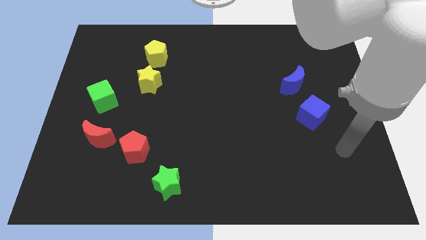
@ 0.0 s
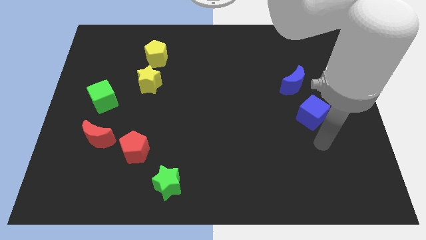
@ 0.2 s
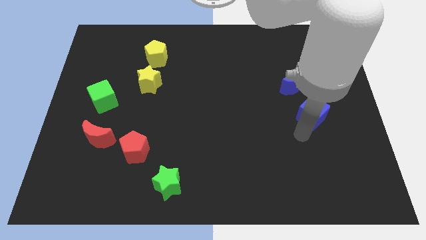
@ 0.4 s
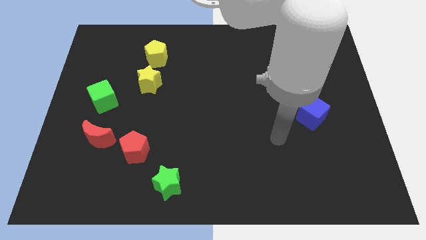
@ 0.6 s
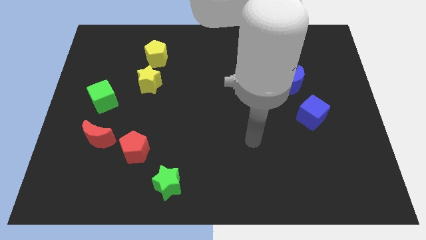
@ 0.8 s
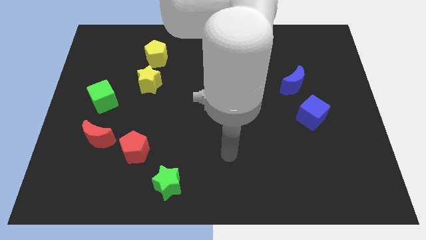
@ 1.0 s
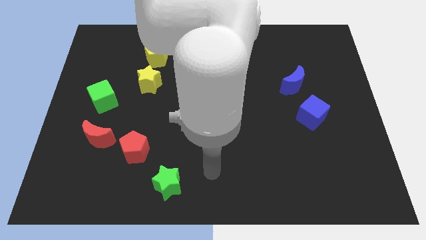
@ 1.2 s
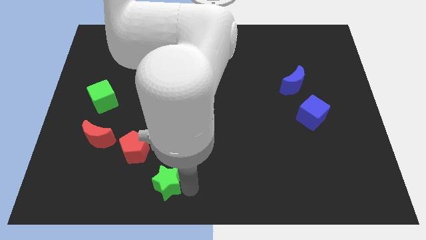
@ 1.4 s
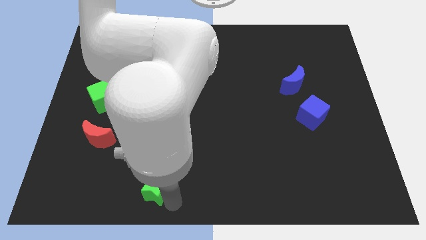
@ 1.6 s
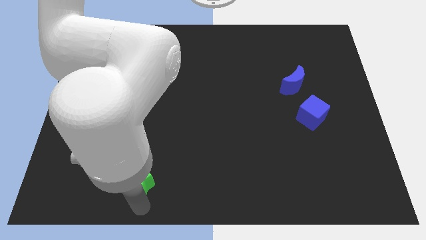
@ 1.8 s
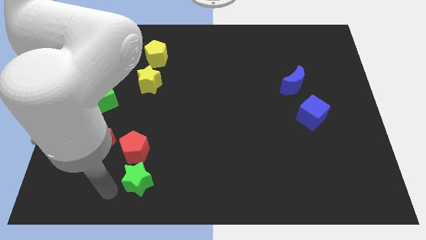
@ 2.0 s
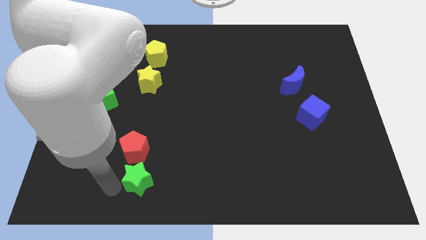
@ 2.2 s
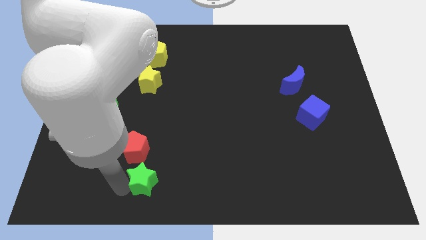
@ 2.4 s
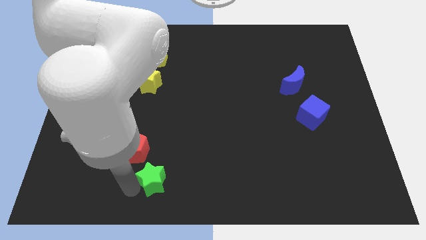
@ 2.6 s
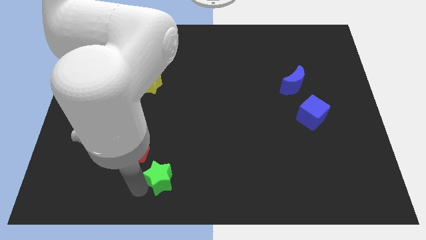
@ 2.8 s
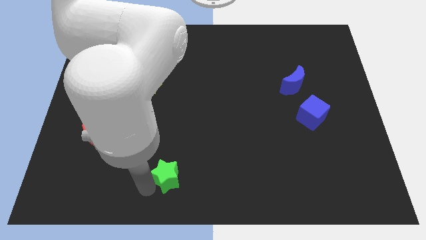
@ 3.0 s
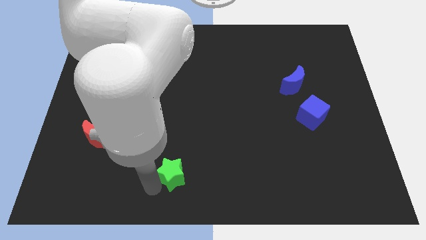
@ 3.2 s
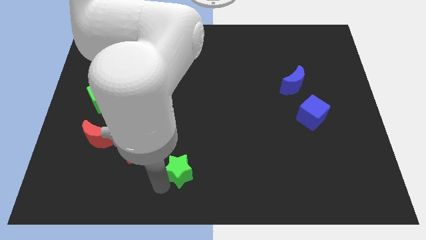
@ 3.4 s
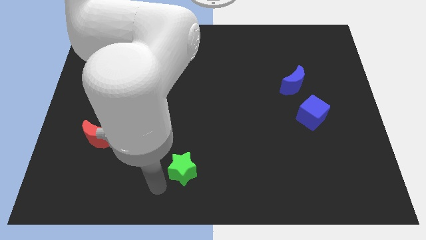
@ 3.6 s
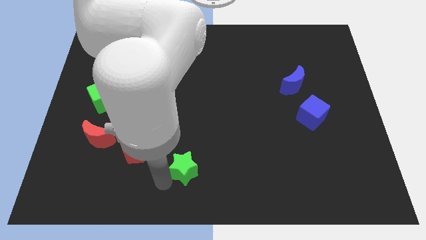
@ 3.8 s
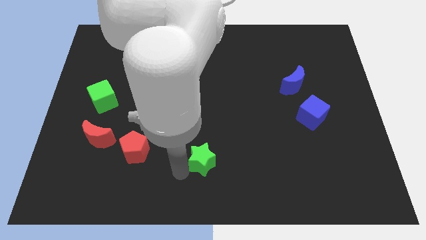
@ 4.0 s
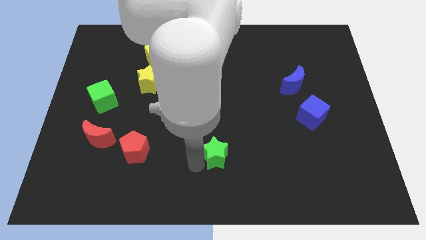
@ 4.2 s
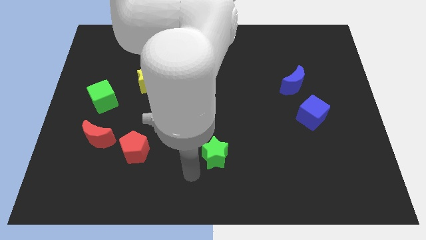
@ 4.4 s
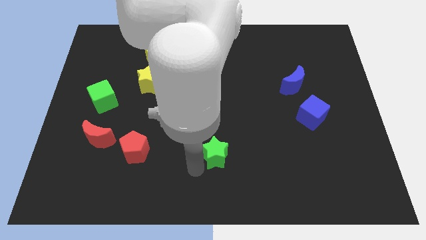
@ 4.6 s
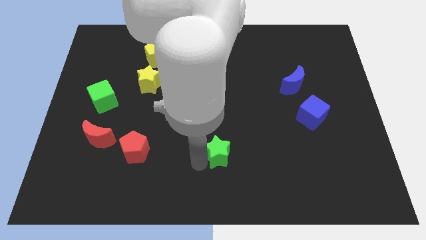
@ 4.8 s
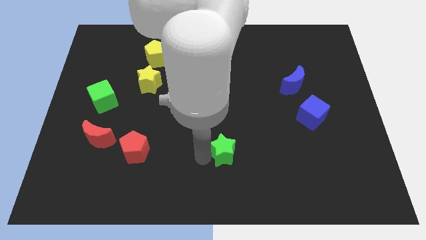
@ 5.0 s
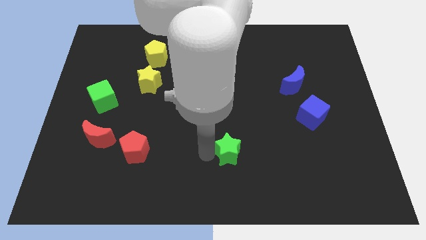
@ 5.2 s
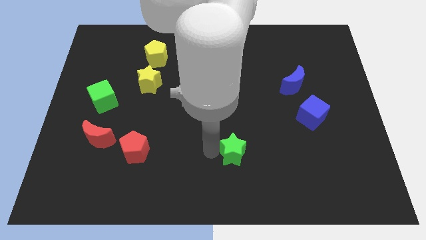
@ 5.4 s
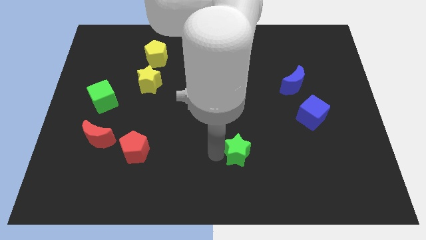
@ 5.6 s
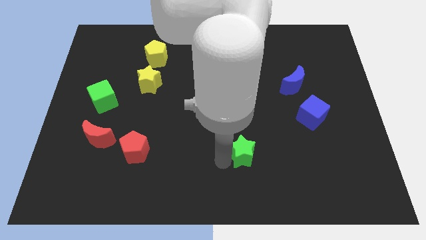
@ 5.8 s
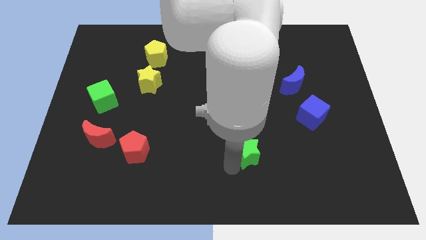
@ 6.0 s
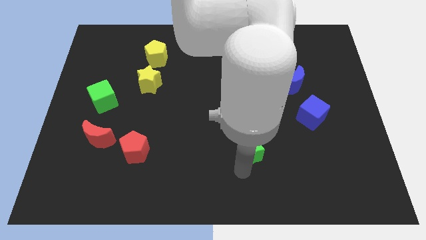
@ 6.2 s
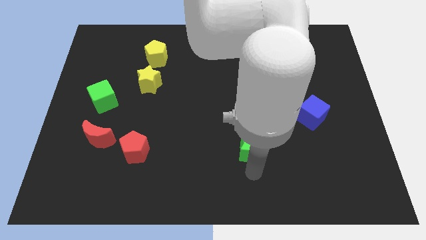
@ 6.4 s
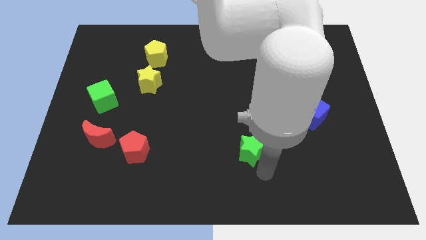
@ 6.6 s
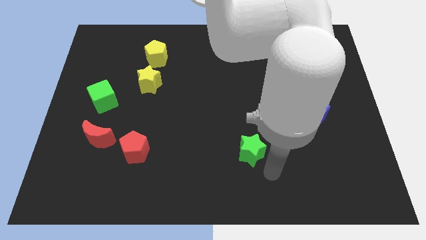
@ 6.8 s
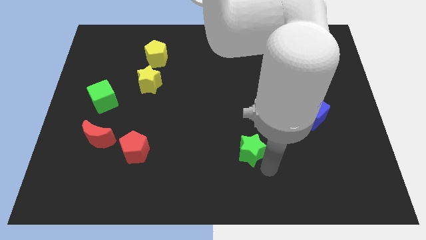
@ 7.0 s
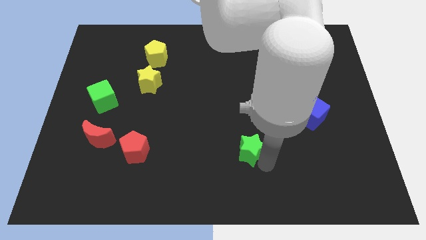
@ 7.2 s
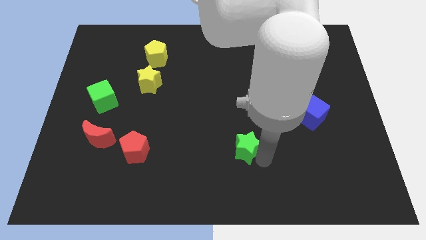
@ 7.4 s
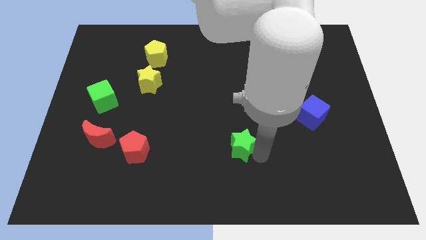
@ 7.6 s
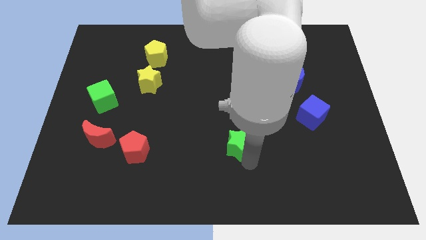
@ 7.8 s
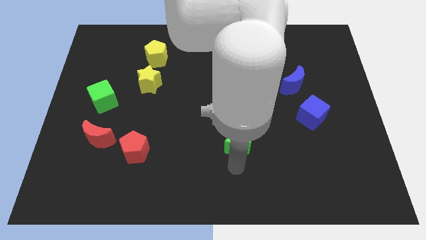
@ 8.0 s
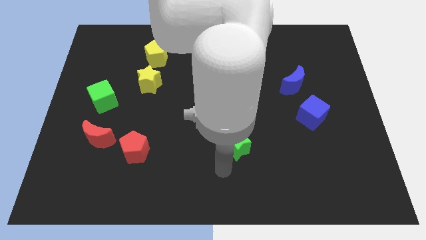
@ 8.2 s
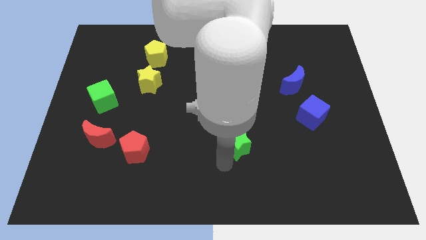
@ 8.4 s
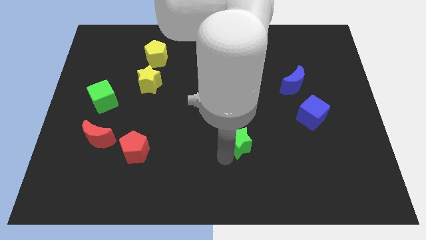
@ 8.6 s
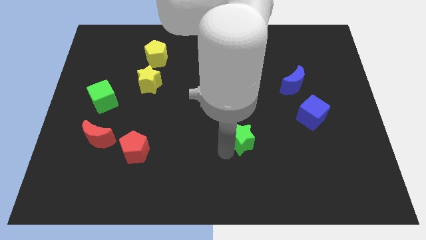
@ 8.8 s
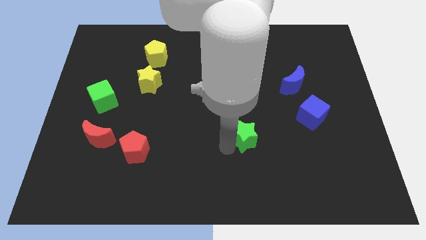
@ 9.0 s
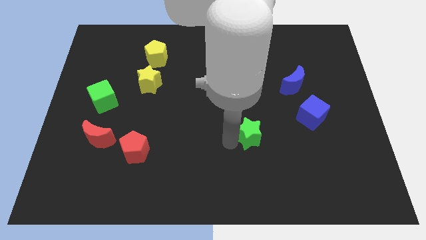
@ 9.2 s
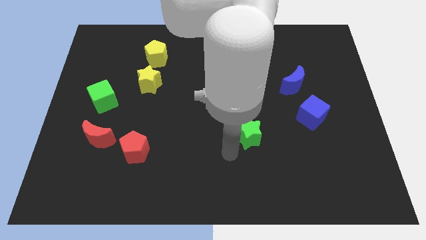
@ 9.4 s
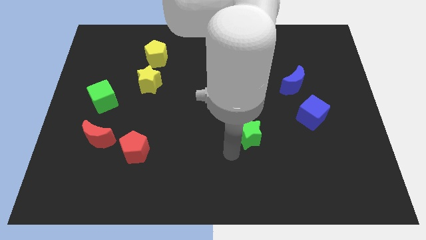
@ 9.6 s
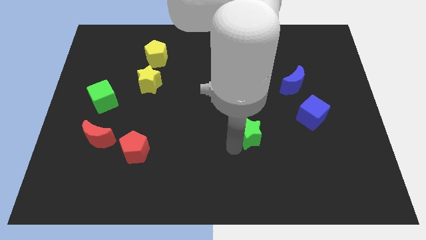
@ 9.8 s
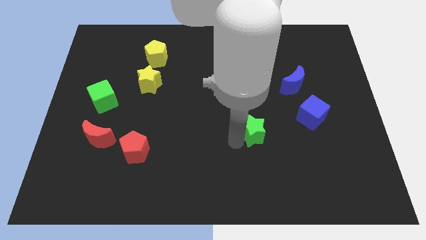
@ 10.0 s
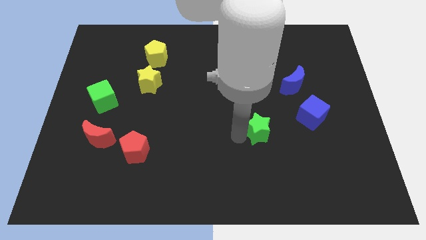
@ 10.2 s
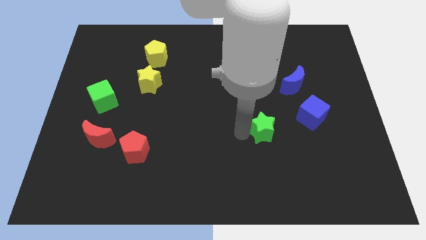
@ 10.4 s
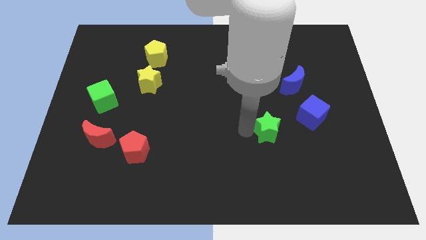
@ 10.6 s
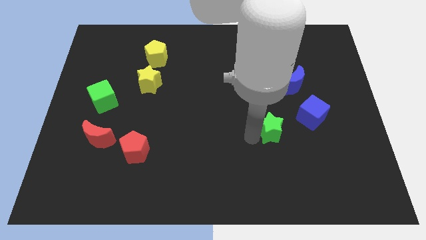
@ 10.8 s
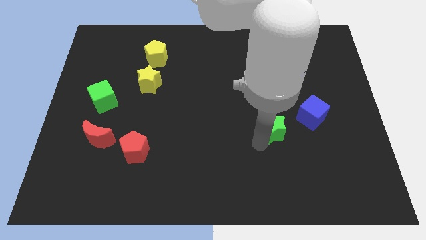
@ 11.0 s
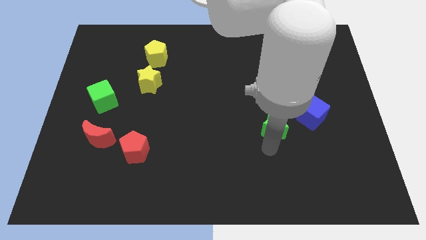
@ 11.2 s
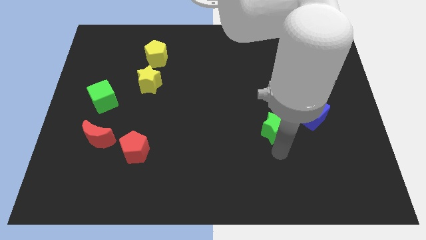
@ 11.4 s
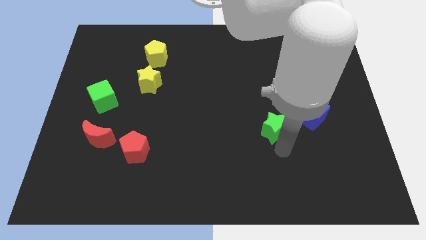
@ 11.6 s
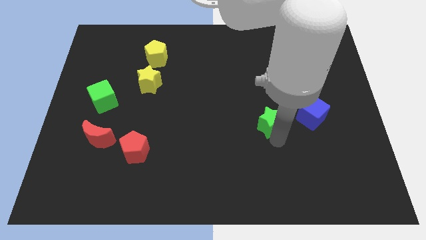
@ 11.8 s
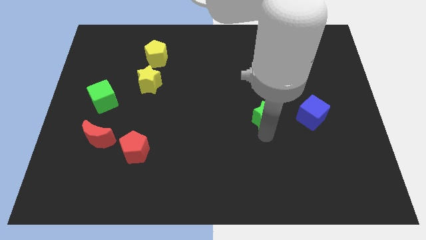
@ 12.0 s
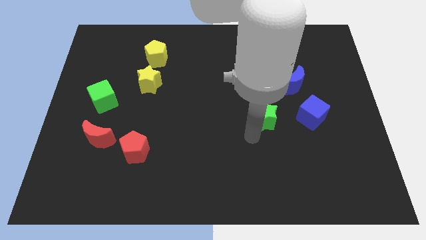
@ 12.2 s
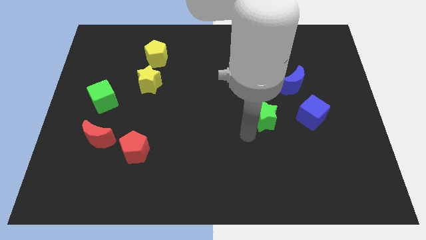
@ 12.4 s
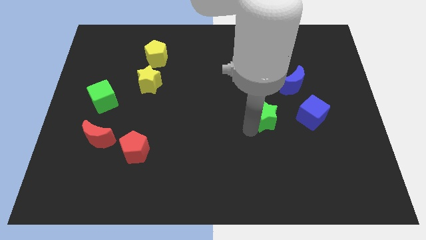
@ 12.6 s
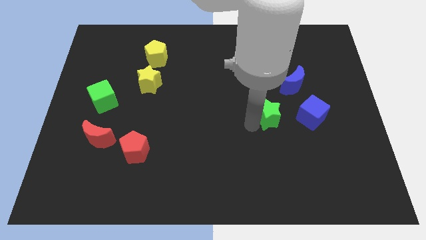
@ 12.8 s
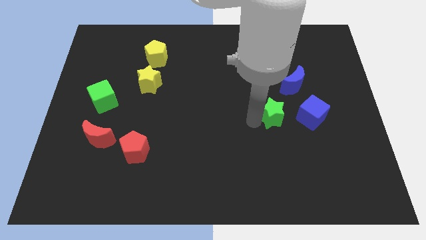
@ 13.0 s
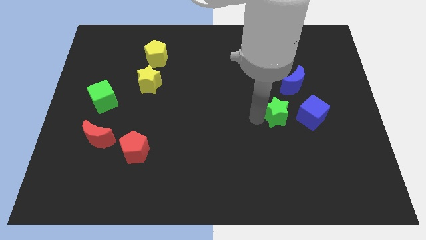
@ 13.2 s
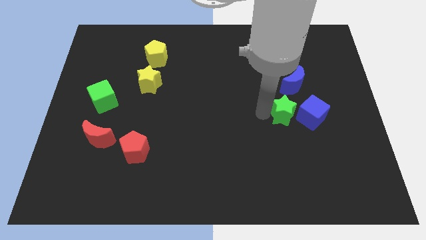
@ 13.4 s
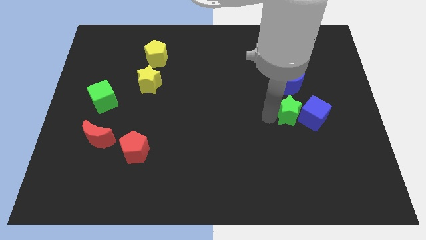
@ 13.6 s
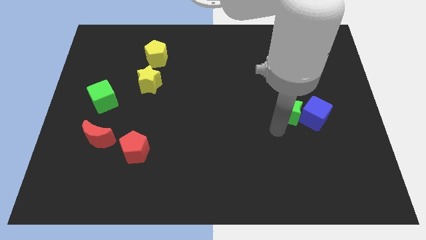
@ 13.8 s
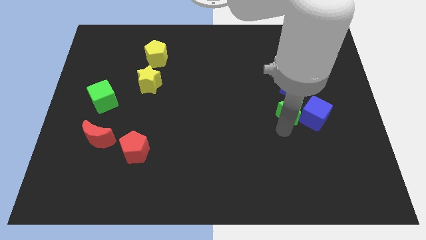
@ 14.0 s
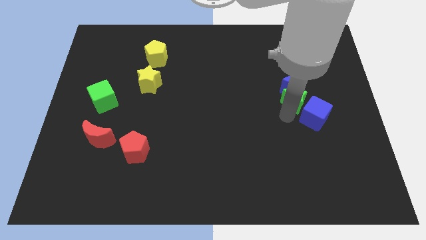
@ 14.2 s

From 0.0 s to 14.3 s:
move the green star next to the blue moon

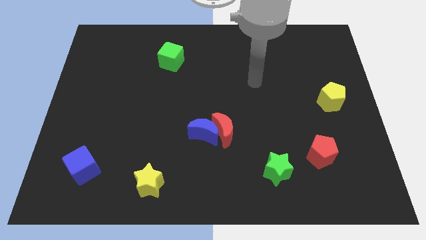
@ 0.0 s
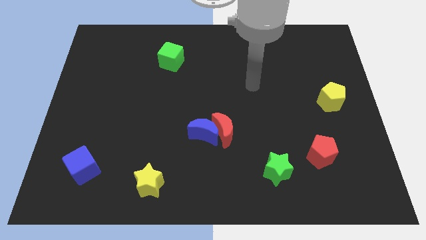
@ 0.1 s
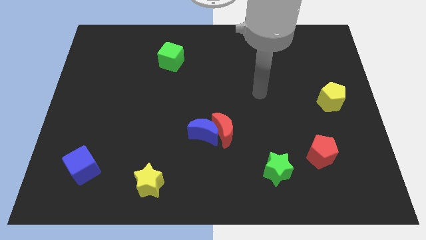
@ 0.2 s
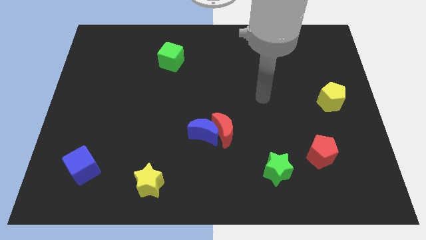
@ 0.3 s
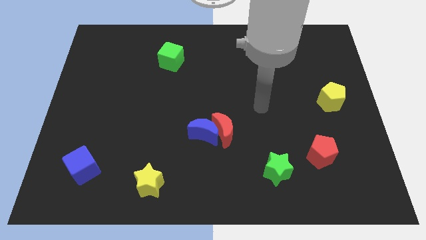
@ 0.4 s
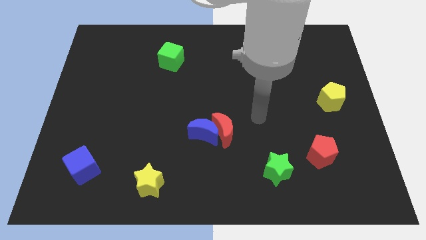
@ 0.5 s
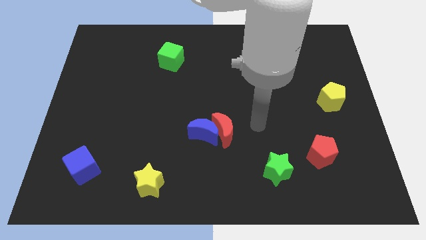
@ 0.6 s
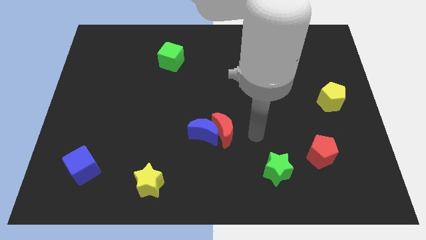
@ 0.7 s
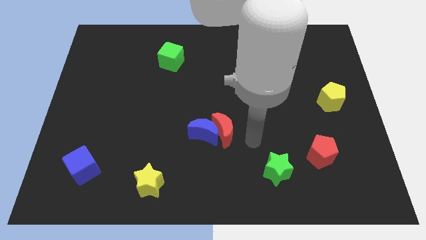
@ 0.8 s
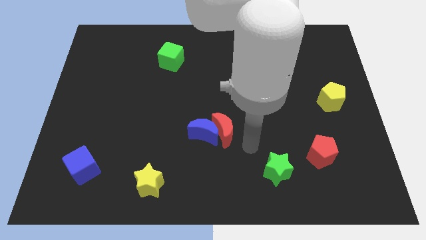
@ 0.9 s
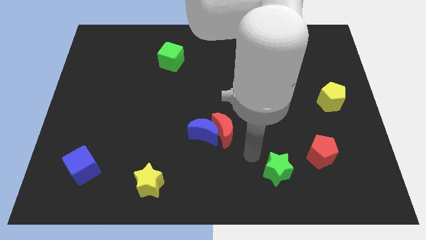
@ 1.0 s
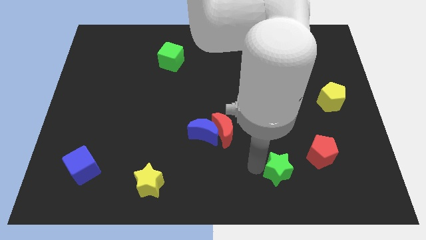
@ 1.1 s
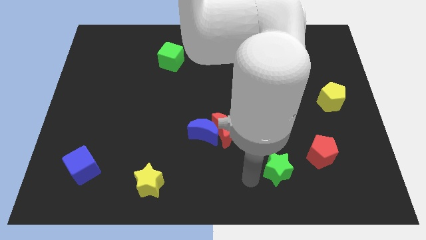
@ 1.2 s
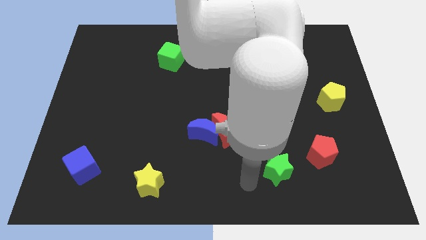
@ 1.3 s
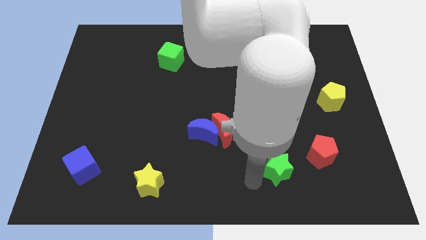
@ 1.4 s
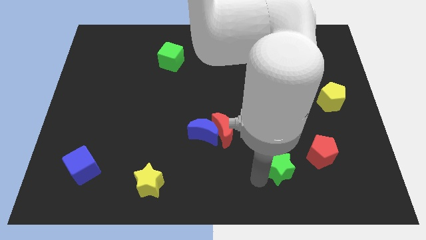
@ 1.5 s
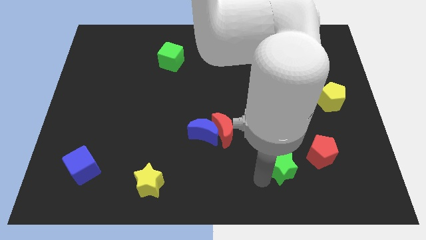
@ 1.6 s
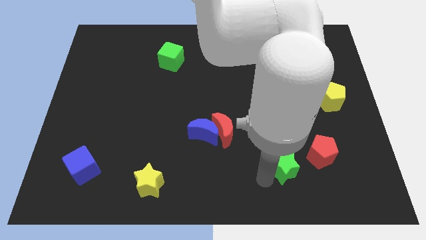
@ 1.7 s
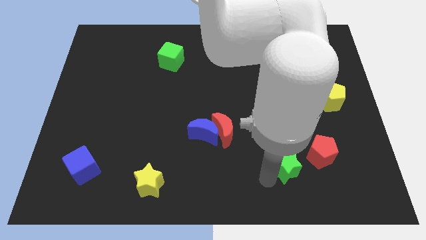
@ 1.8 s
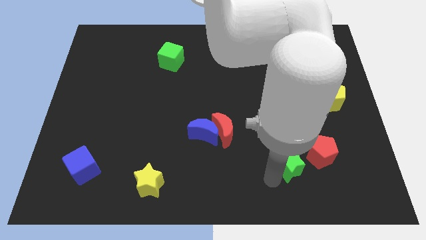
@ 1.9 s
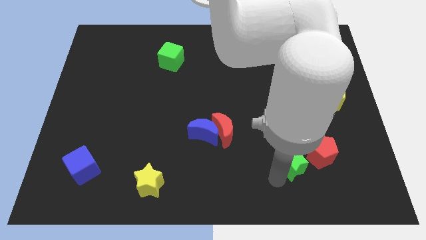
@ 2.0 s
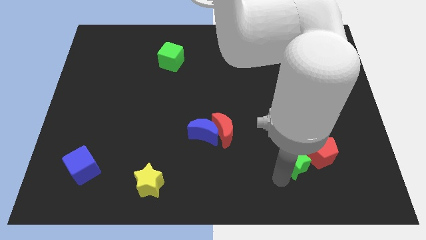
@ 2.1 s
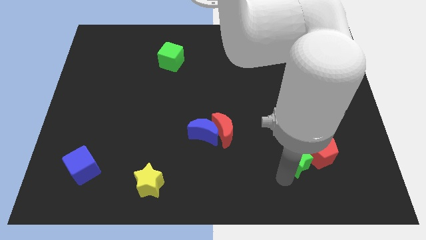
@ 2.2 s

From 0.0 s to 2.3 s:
push the green star close to the red pentagon
